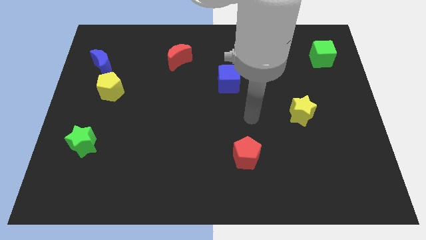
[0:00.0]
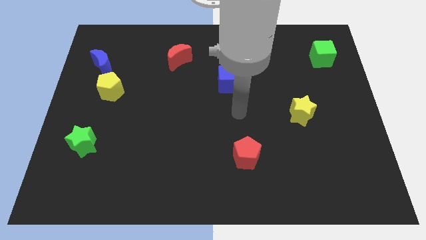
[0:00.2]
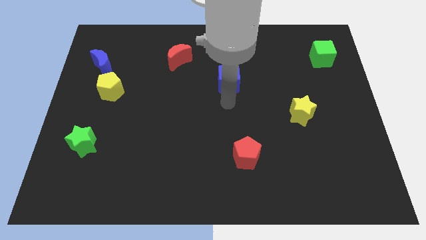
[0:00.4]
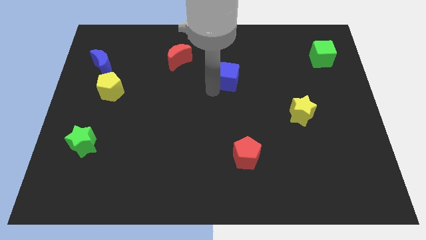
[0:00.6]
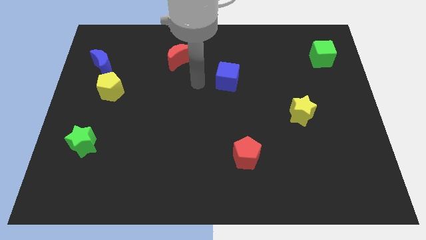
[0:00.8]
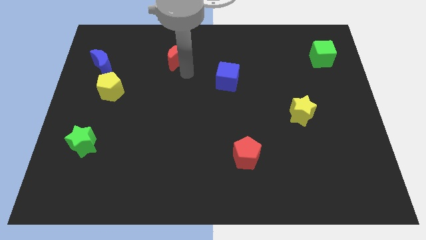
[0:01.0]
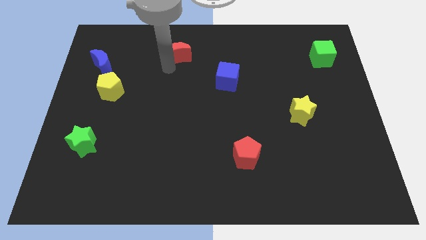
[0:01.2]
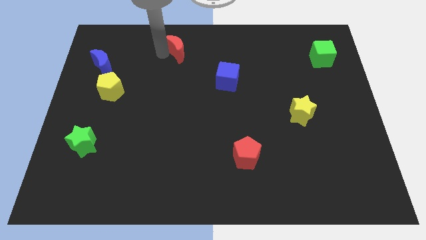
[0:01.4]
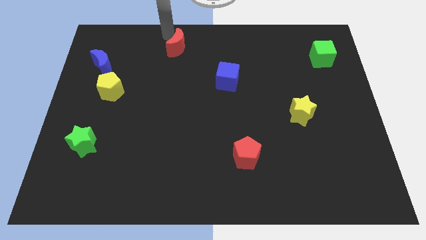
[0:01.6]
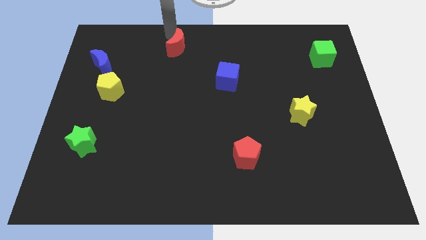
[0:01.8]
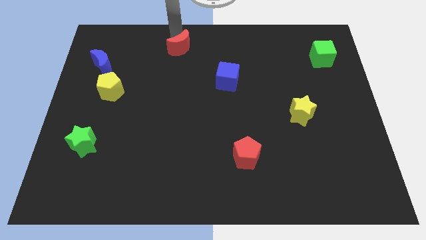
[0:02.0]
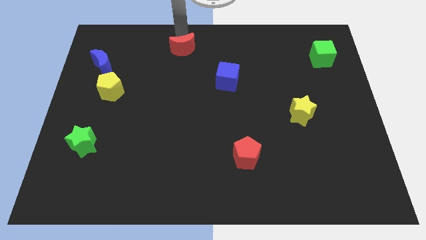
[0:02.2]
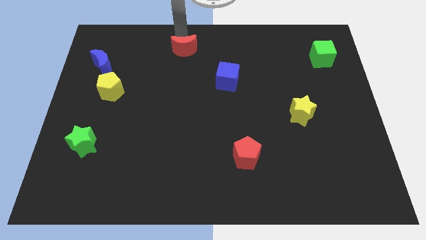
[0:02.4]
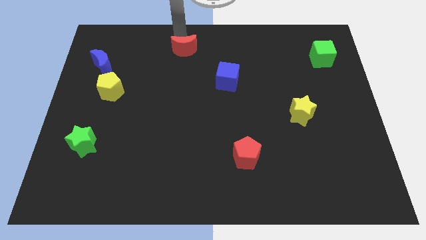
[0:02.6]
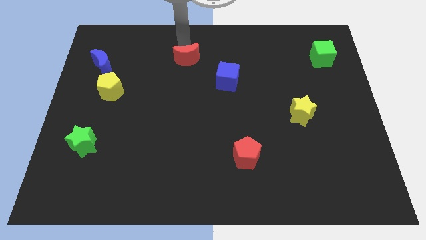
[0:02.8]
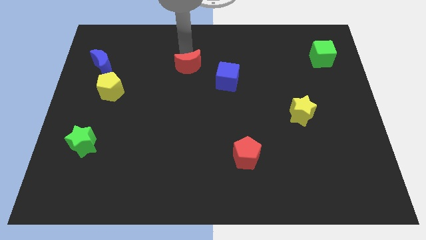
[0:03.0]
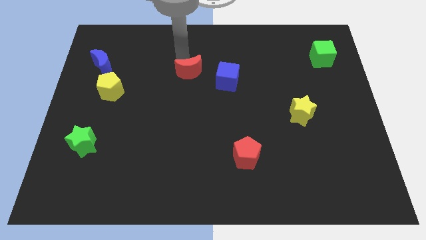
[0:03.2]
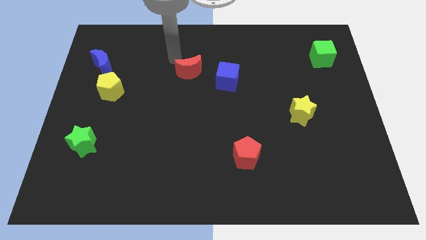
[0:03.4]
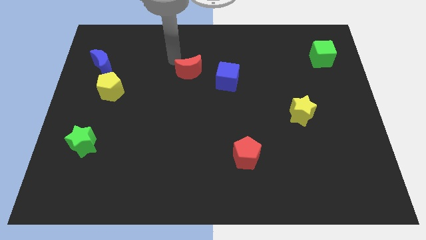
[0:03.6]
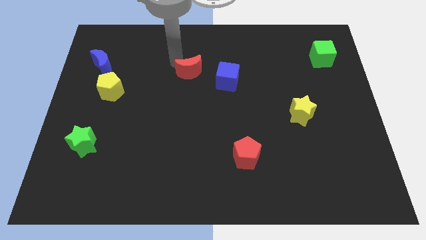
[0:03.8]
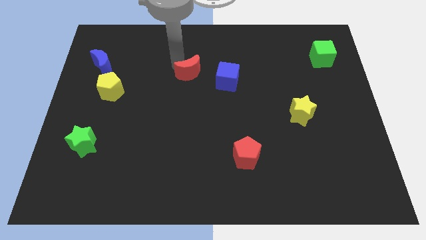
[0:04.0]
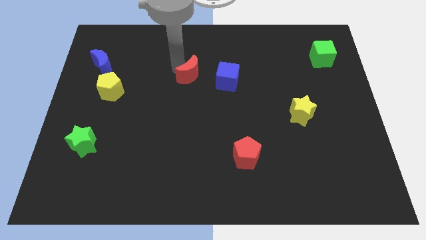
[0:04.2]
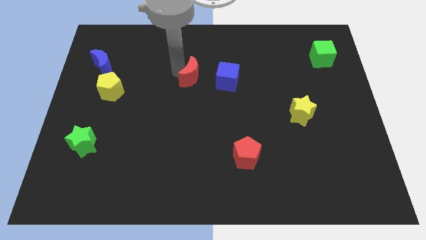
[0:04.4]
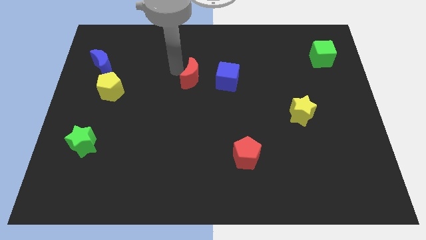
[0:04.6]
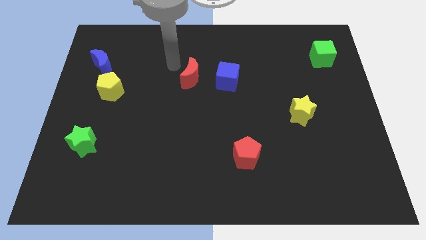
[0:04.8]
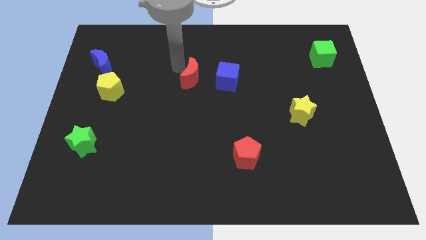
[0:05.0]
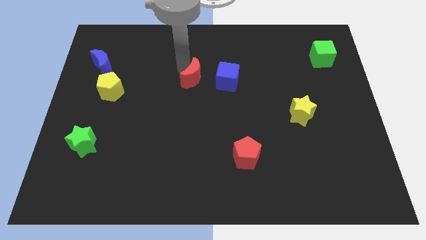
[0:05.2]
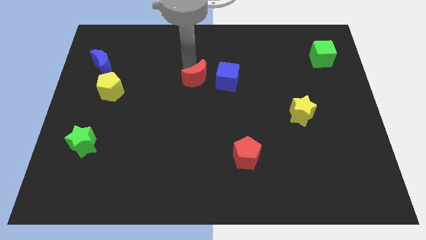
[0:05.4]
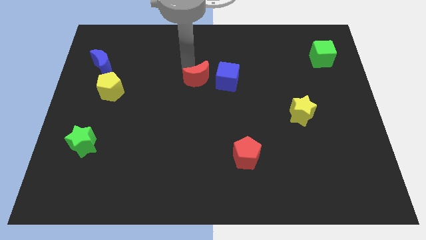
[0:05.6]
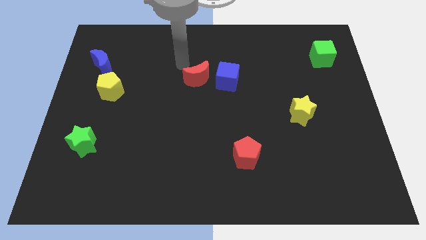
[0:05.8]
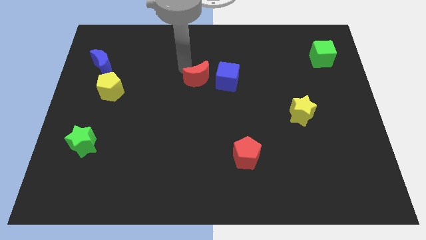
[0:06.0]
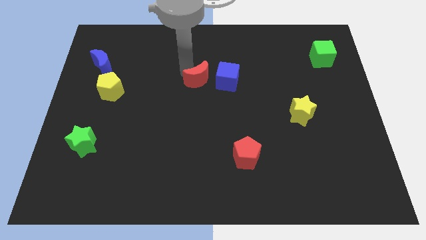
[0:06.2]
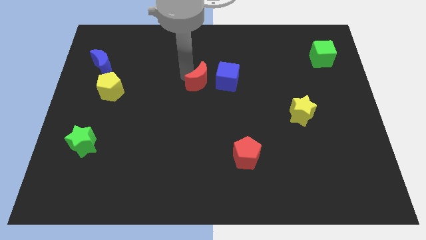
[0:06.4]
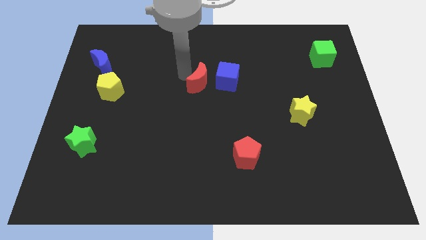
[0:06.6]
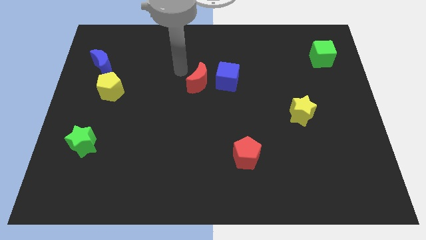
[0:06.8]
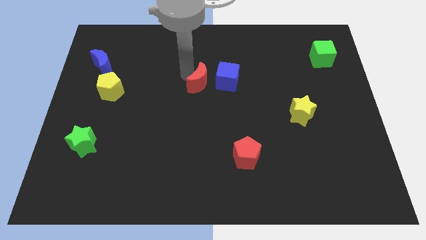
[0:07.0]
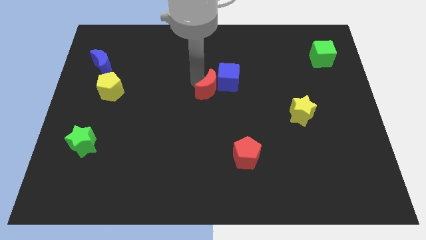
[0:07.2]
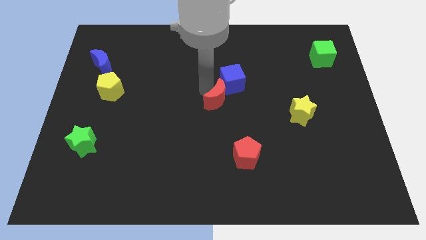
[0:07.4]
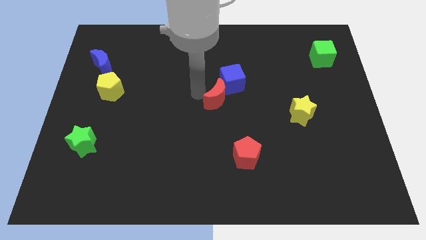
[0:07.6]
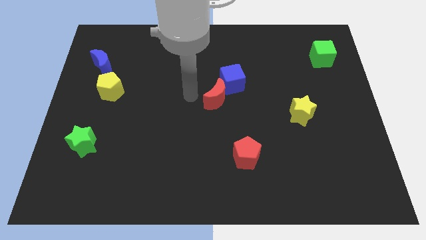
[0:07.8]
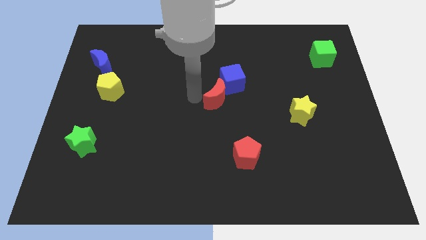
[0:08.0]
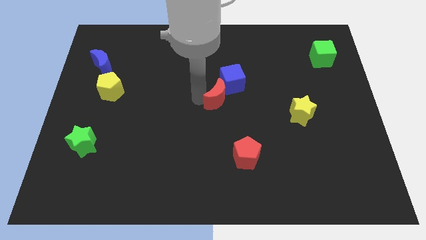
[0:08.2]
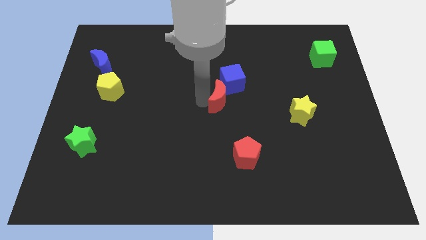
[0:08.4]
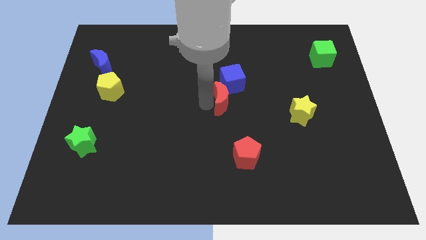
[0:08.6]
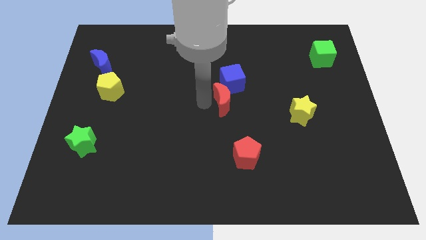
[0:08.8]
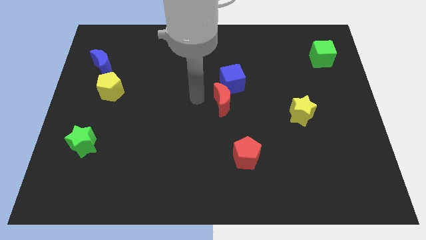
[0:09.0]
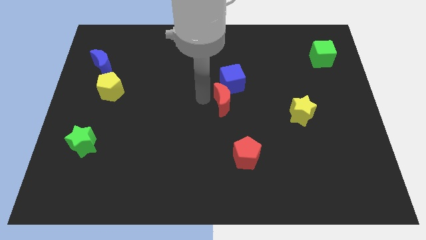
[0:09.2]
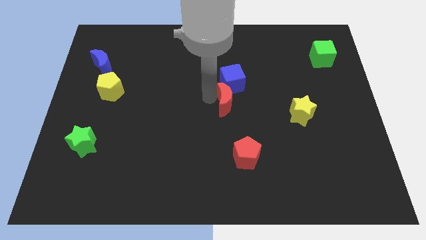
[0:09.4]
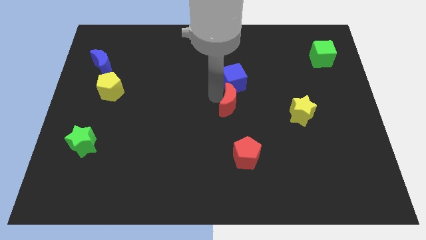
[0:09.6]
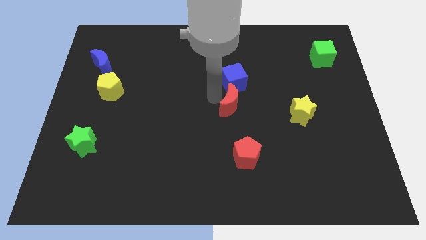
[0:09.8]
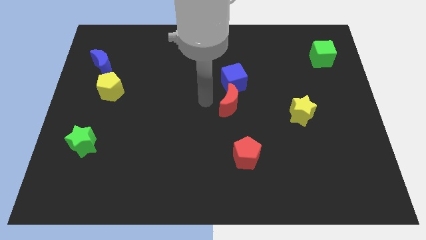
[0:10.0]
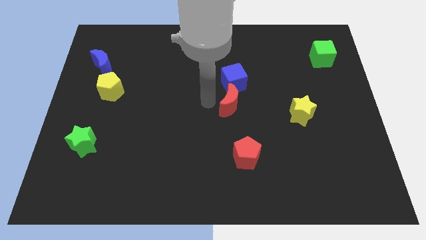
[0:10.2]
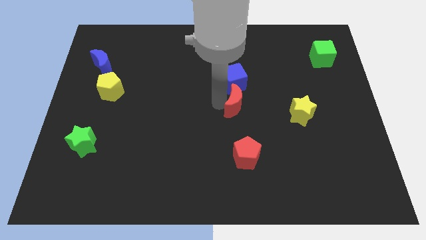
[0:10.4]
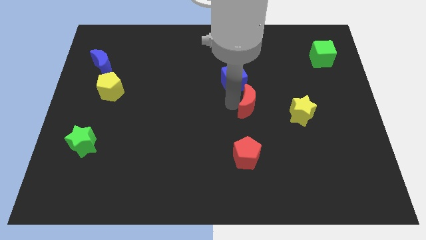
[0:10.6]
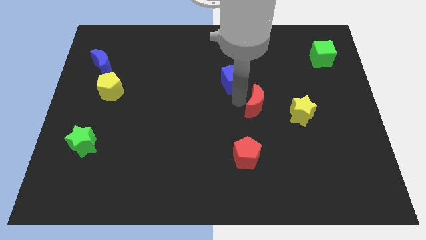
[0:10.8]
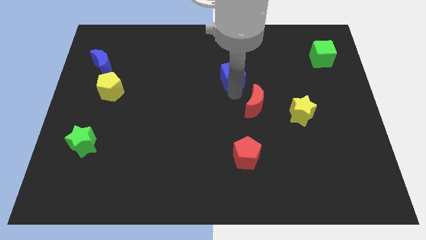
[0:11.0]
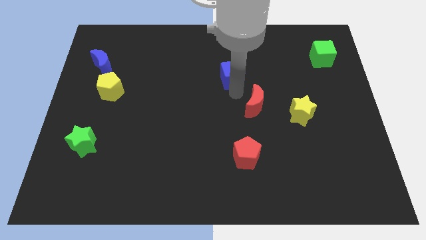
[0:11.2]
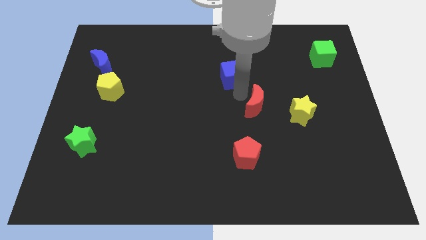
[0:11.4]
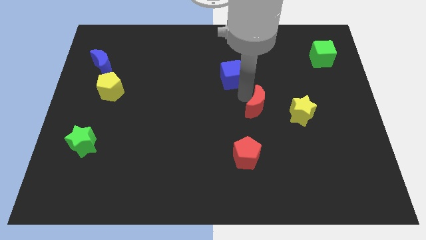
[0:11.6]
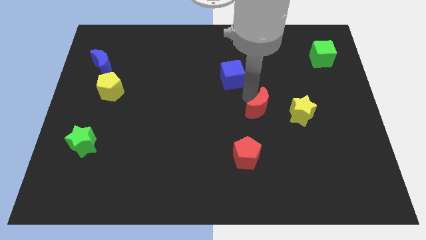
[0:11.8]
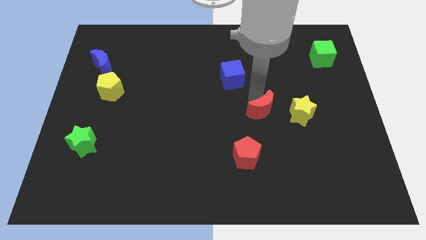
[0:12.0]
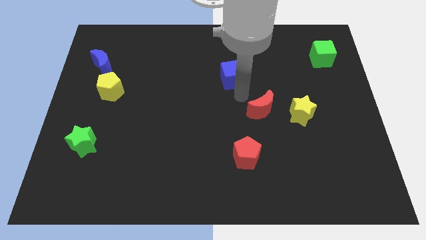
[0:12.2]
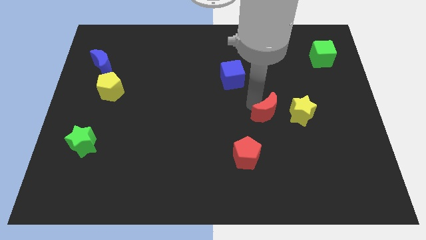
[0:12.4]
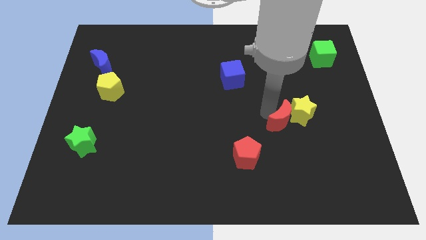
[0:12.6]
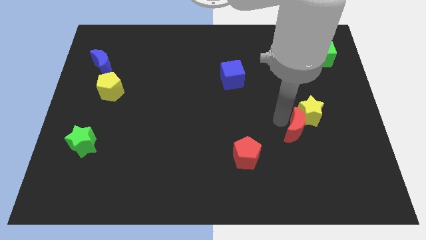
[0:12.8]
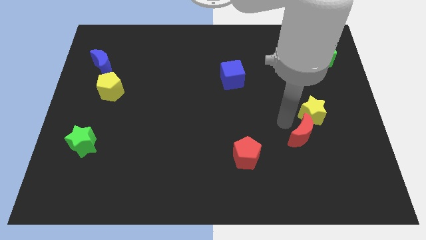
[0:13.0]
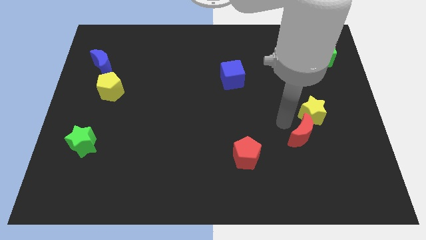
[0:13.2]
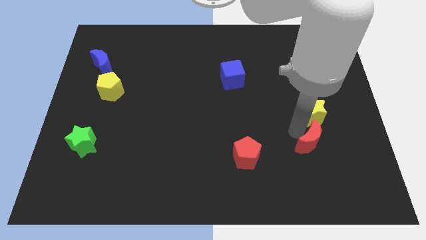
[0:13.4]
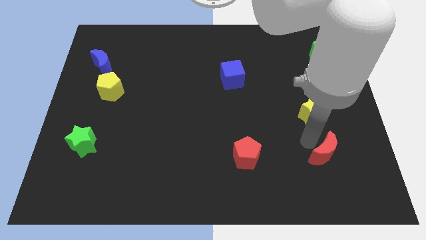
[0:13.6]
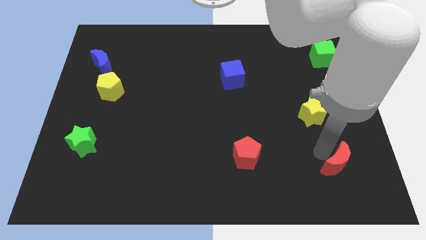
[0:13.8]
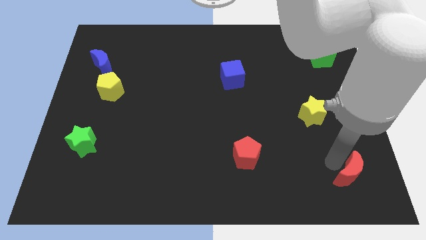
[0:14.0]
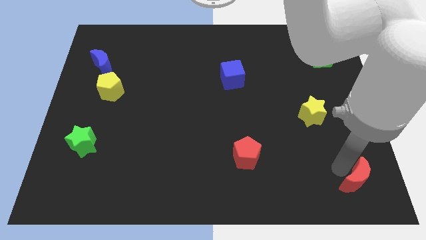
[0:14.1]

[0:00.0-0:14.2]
slide the red moon to the bottom right corner
